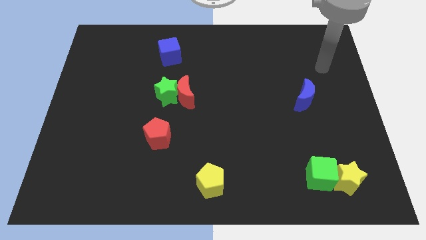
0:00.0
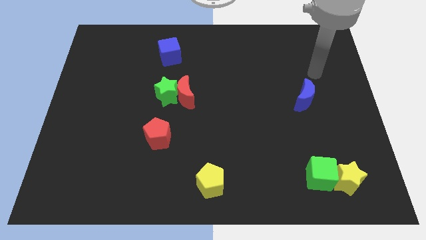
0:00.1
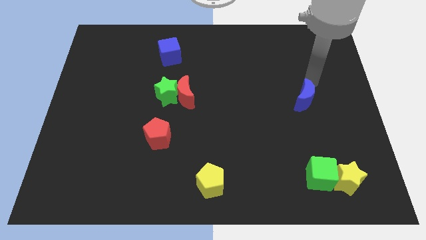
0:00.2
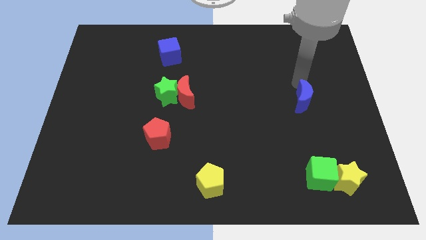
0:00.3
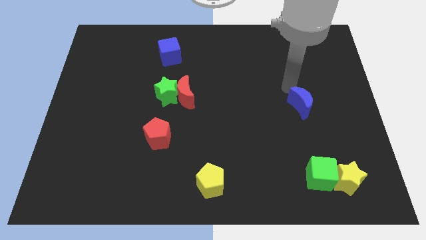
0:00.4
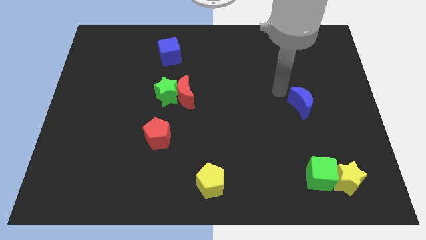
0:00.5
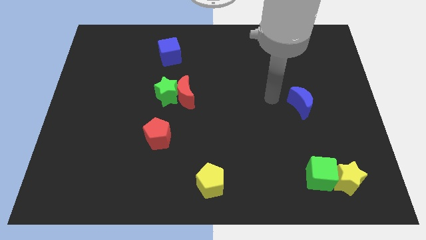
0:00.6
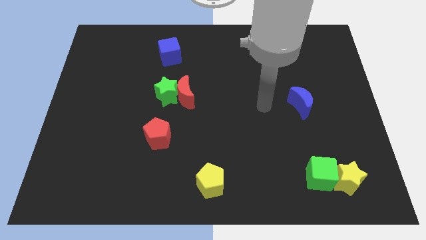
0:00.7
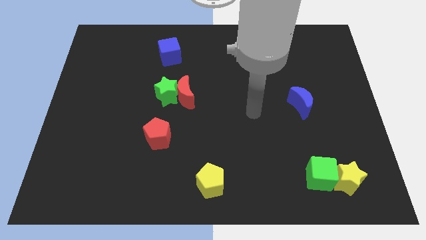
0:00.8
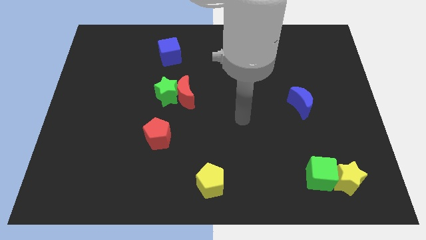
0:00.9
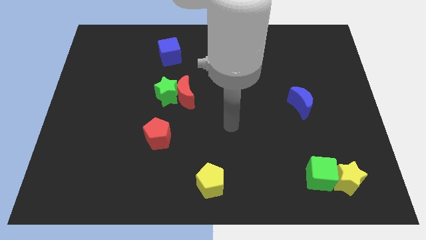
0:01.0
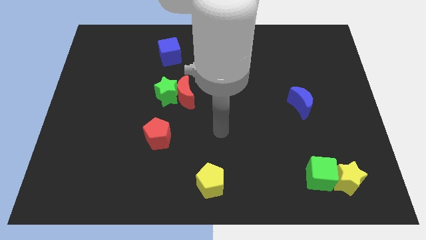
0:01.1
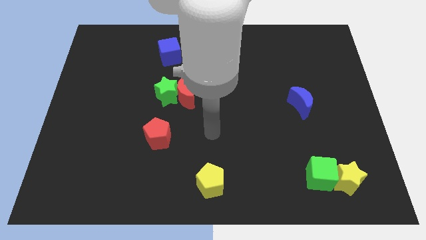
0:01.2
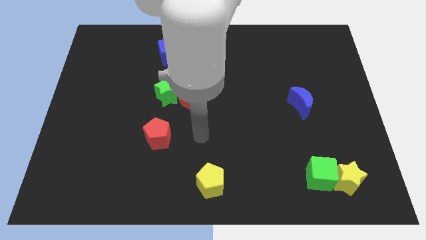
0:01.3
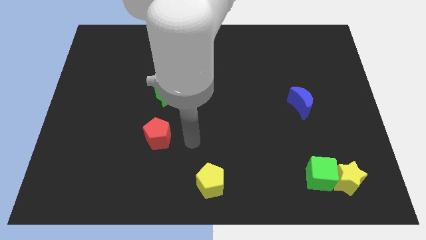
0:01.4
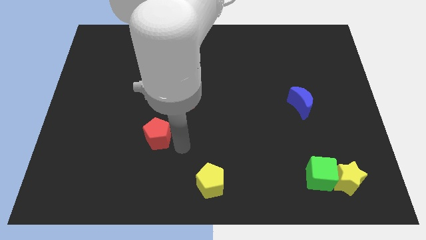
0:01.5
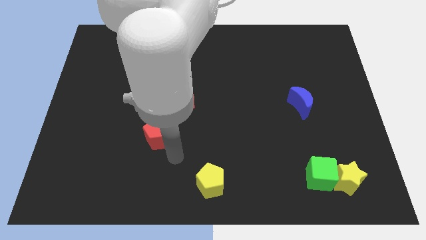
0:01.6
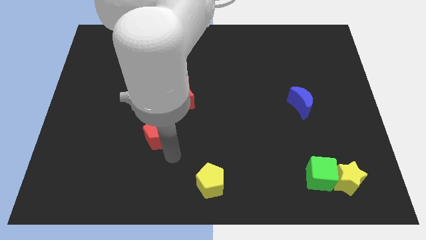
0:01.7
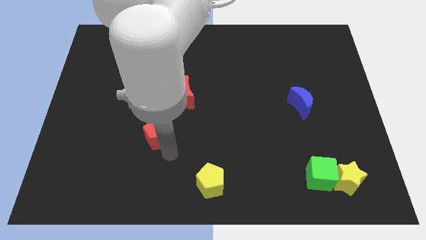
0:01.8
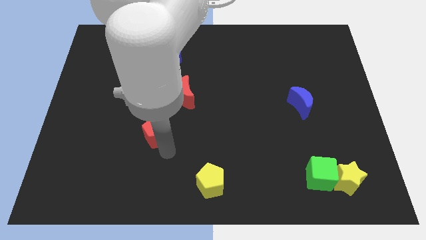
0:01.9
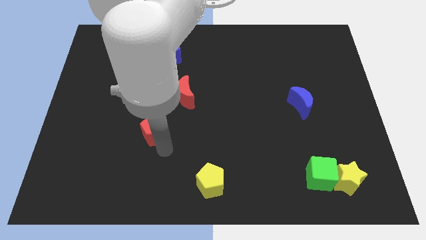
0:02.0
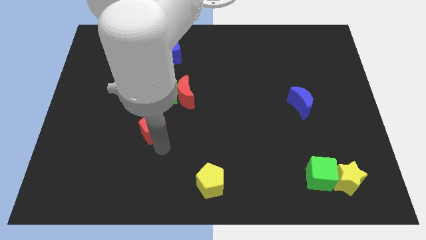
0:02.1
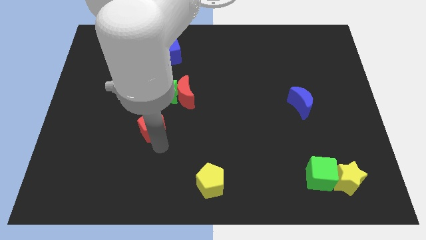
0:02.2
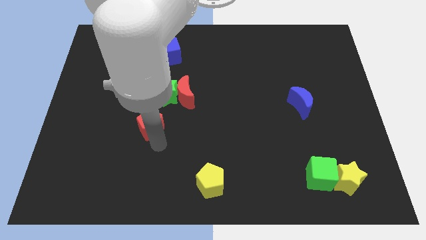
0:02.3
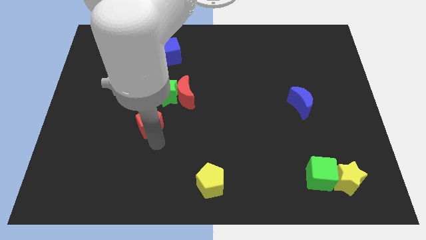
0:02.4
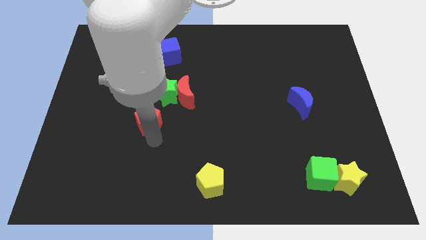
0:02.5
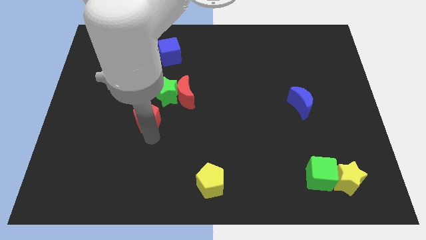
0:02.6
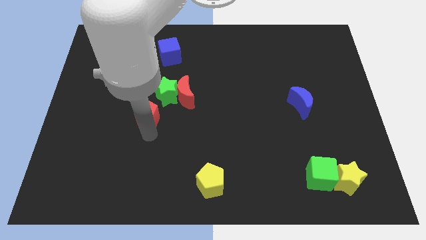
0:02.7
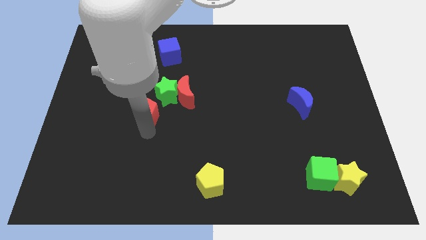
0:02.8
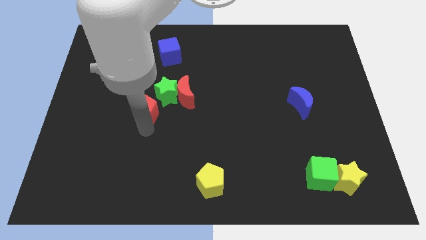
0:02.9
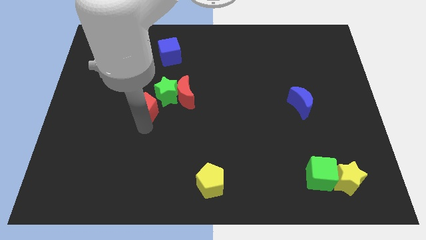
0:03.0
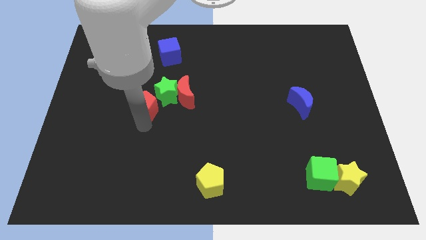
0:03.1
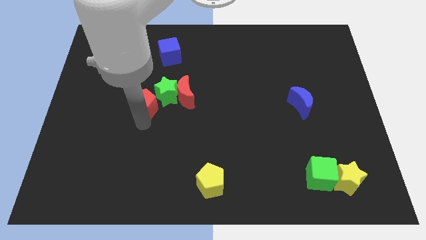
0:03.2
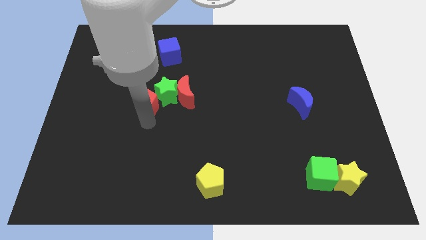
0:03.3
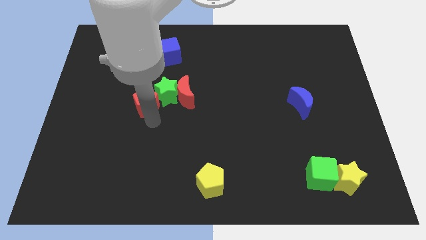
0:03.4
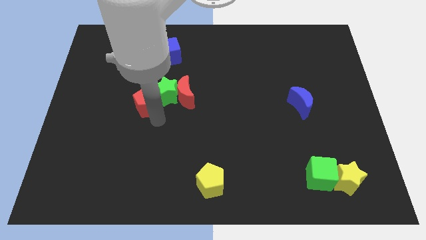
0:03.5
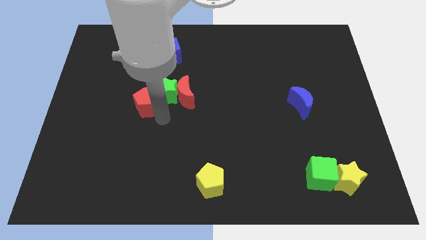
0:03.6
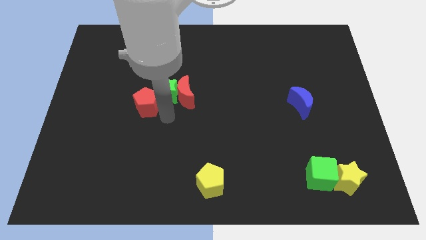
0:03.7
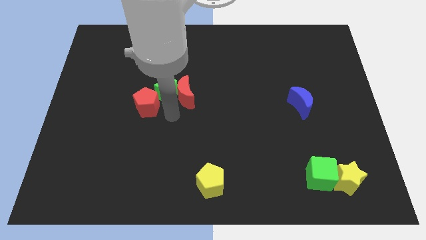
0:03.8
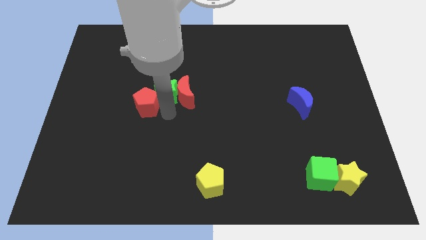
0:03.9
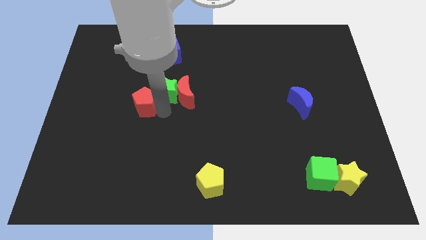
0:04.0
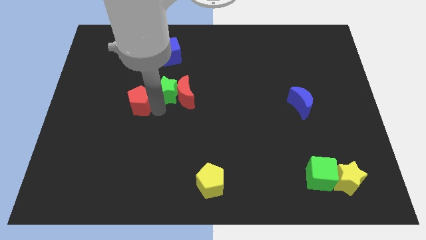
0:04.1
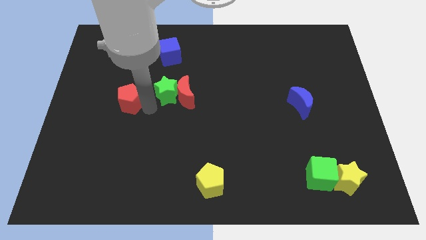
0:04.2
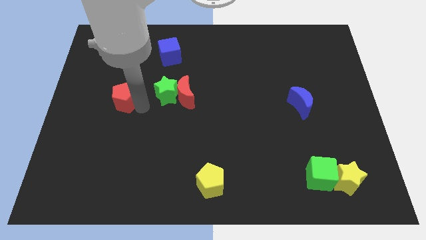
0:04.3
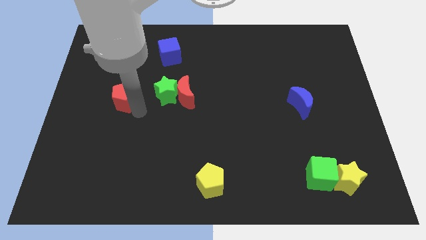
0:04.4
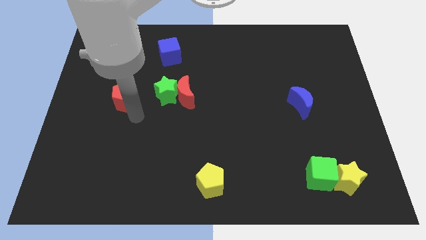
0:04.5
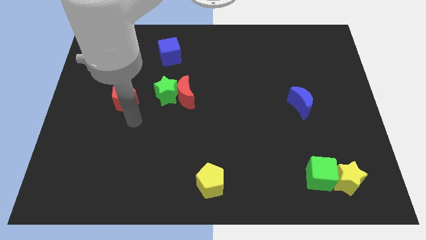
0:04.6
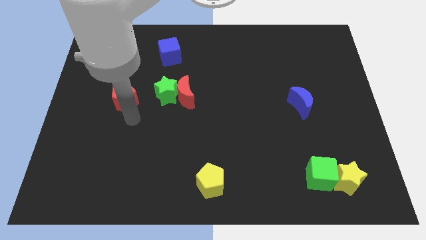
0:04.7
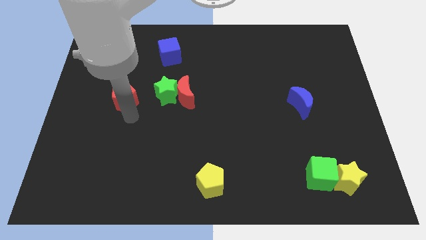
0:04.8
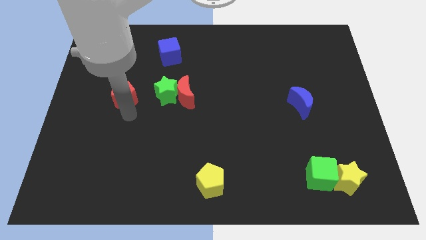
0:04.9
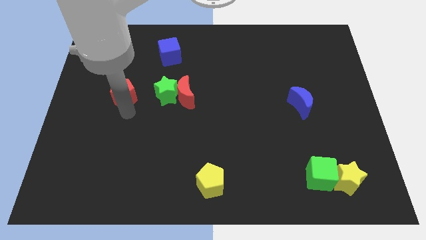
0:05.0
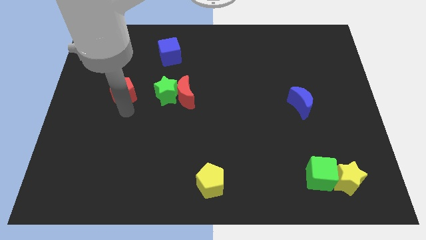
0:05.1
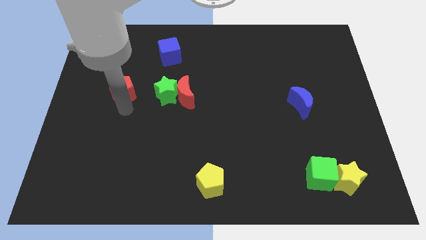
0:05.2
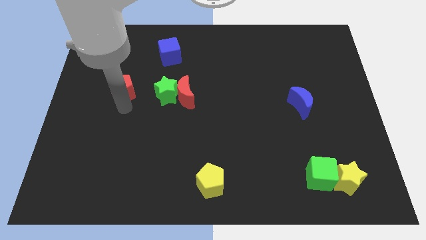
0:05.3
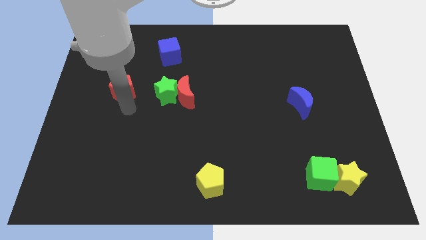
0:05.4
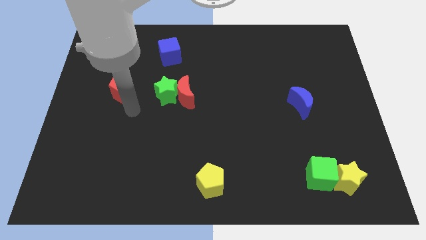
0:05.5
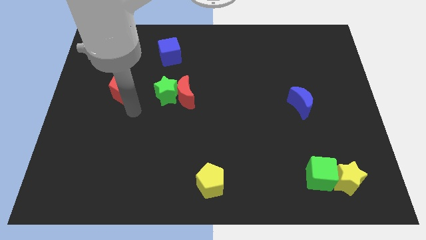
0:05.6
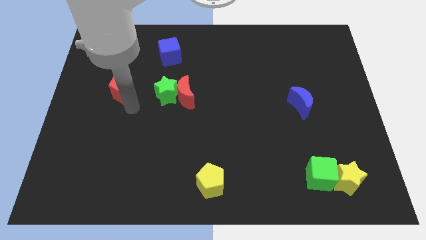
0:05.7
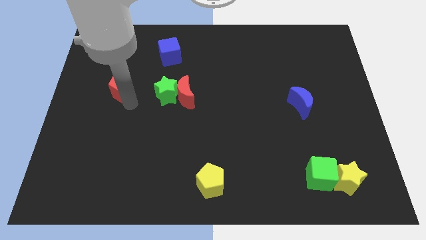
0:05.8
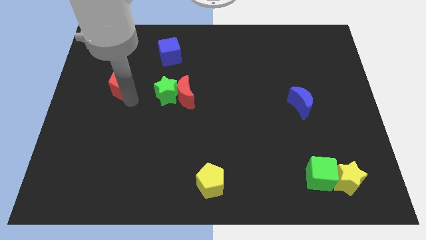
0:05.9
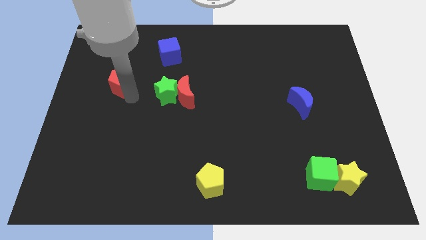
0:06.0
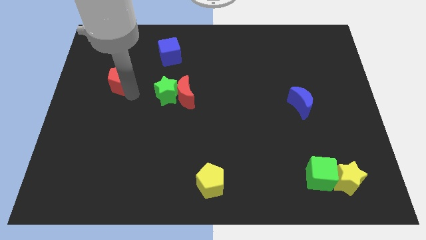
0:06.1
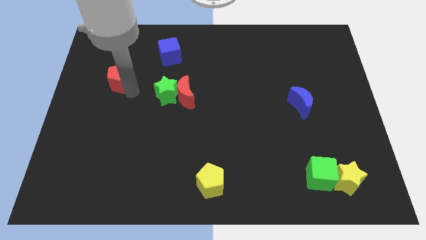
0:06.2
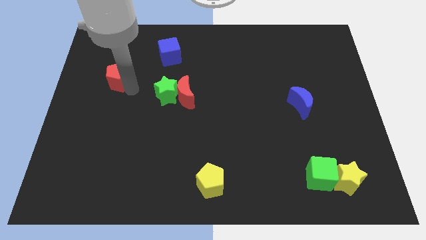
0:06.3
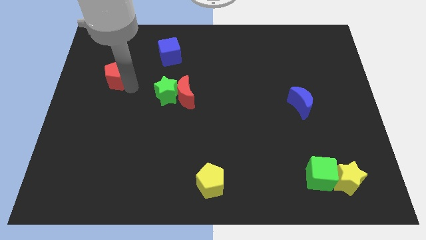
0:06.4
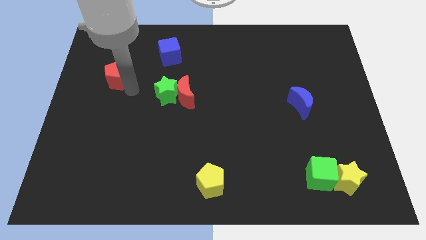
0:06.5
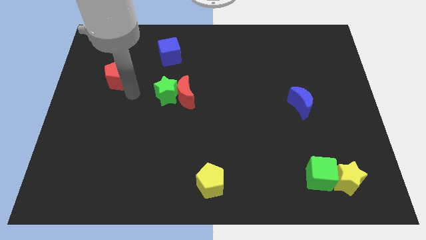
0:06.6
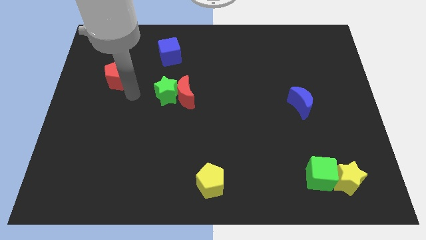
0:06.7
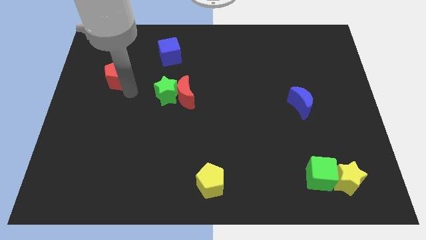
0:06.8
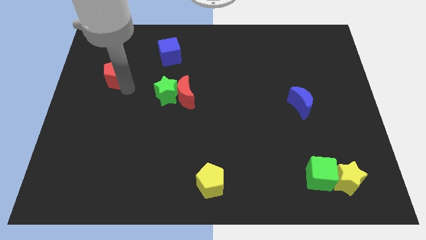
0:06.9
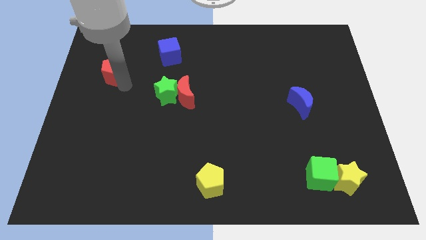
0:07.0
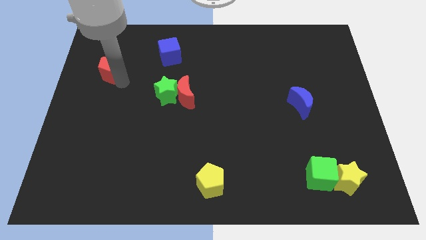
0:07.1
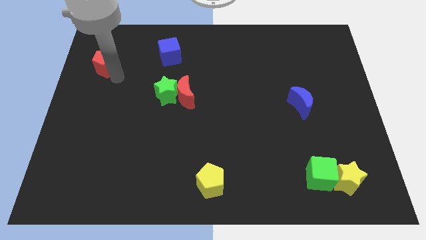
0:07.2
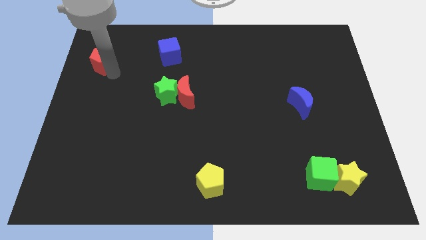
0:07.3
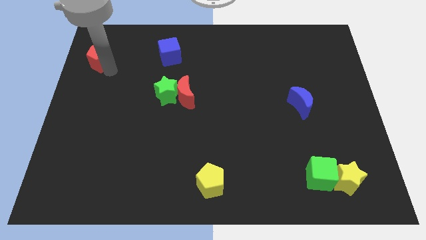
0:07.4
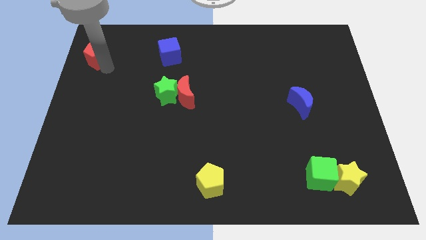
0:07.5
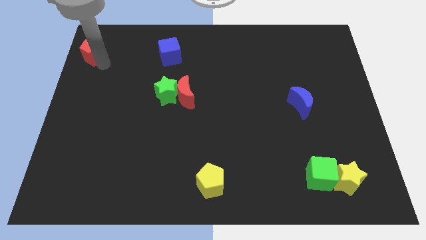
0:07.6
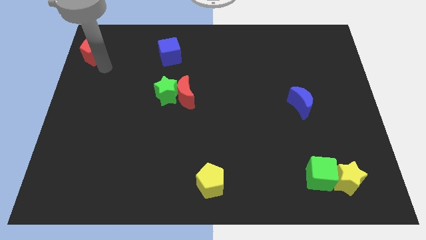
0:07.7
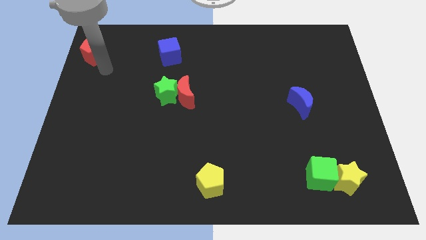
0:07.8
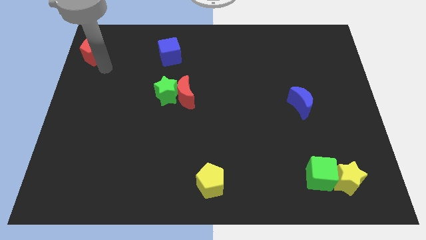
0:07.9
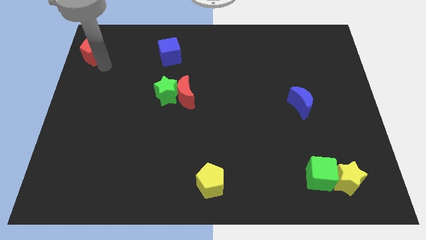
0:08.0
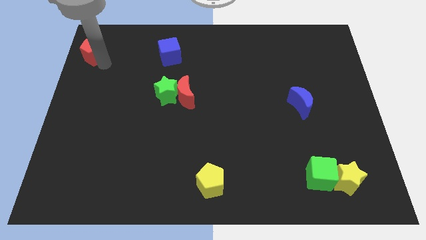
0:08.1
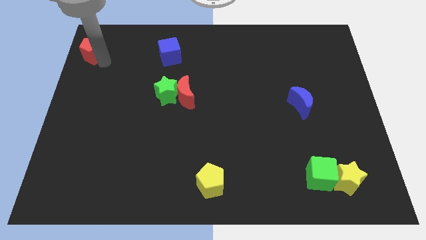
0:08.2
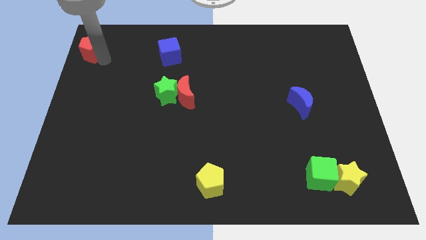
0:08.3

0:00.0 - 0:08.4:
push the red pentagon to the top left
